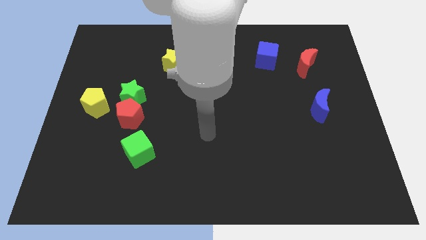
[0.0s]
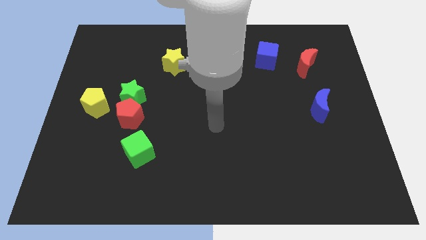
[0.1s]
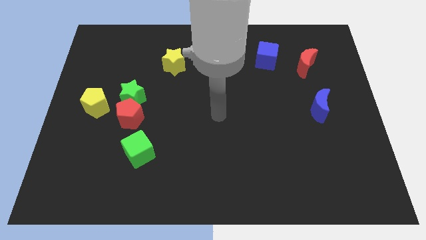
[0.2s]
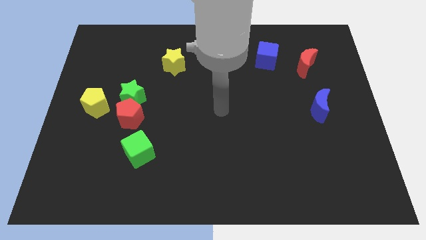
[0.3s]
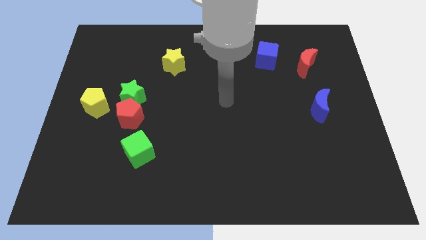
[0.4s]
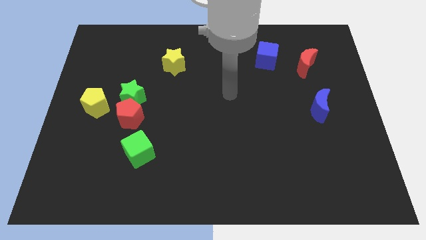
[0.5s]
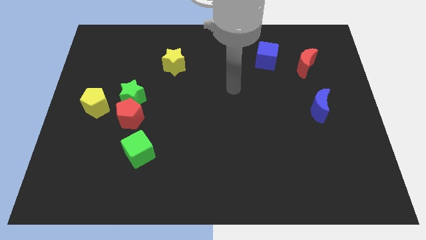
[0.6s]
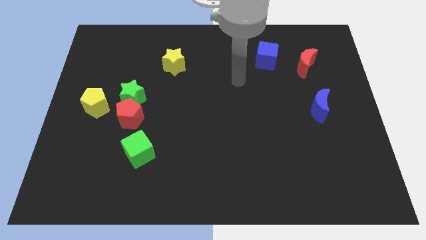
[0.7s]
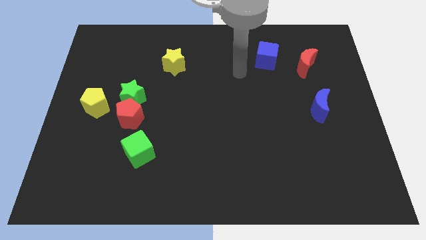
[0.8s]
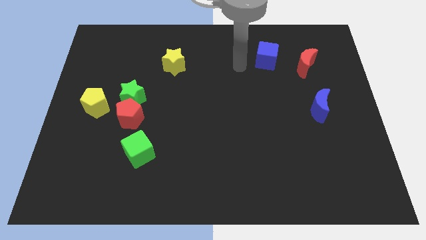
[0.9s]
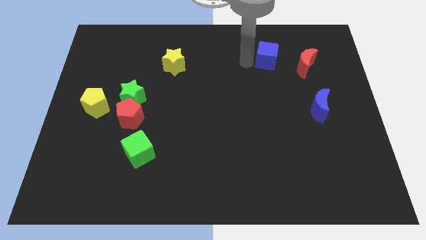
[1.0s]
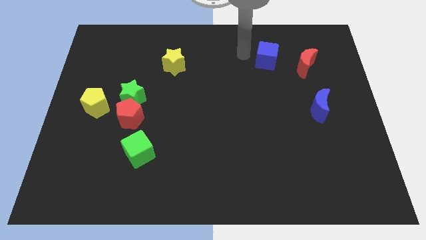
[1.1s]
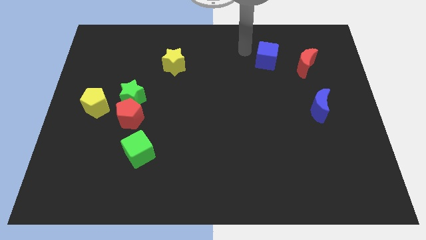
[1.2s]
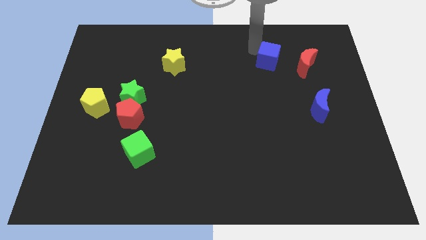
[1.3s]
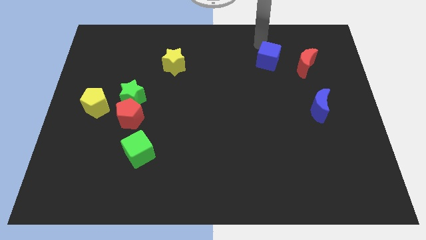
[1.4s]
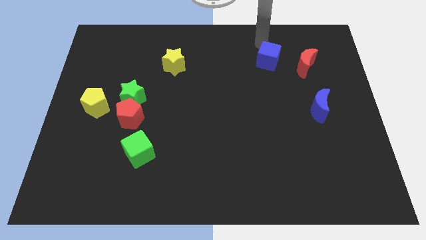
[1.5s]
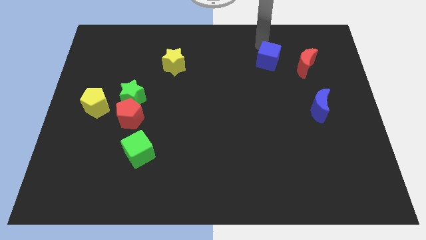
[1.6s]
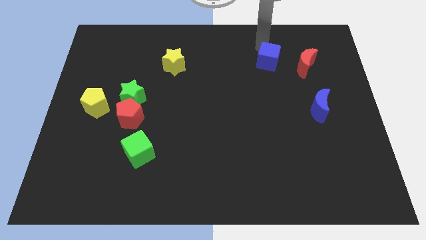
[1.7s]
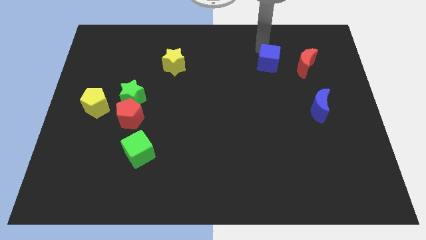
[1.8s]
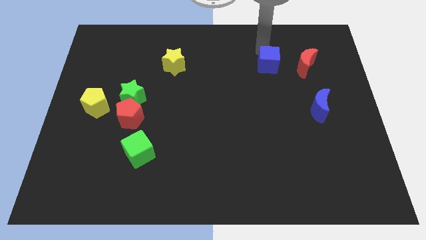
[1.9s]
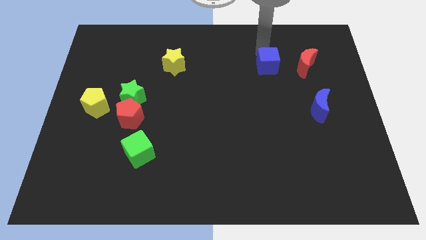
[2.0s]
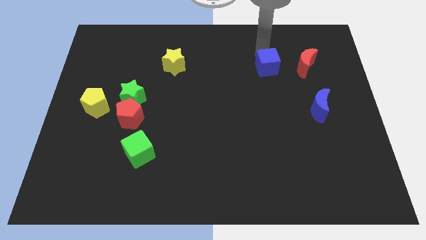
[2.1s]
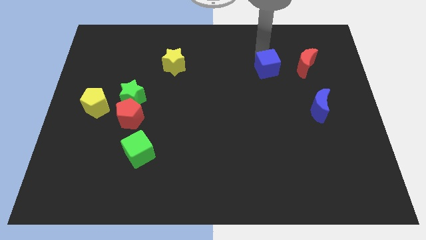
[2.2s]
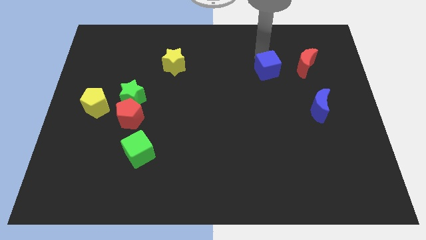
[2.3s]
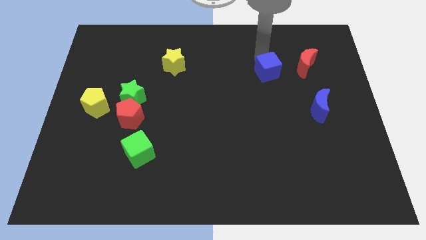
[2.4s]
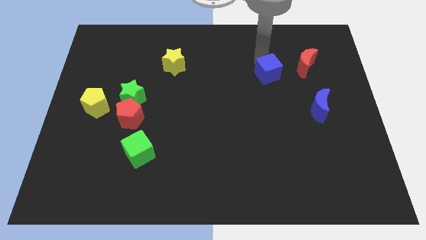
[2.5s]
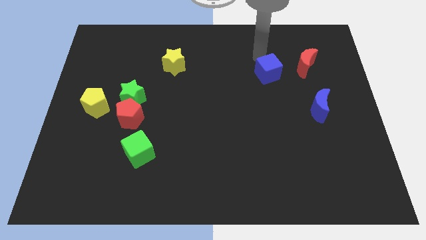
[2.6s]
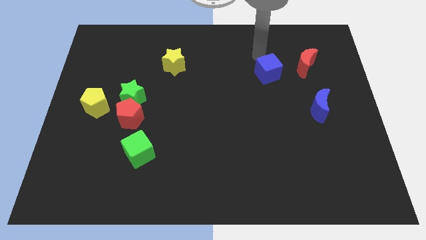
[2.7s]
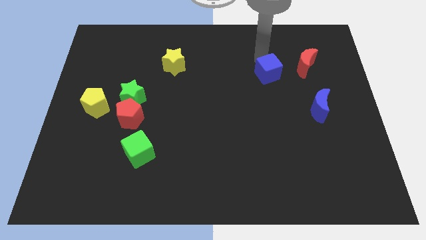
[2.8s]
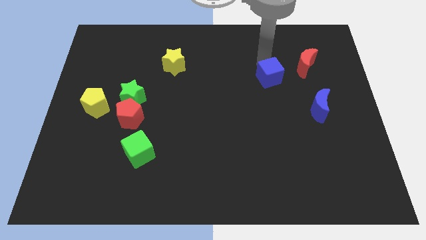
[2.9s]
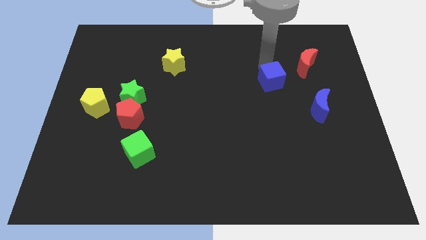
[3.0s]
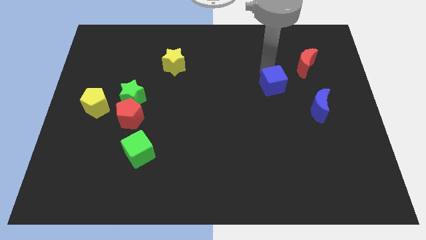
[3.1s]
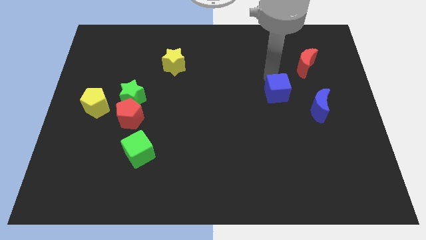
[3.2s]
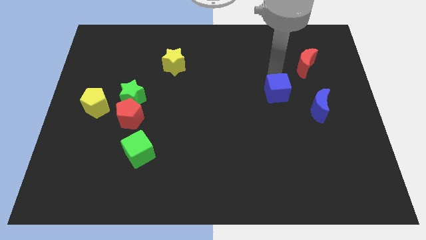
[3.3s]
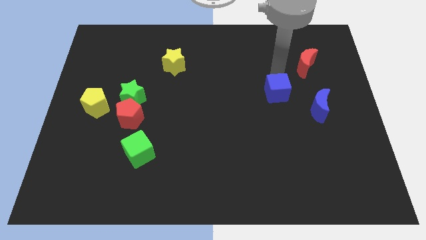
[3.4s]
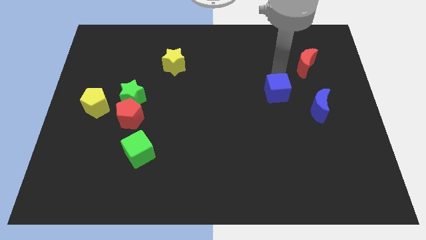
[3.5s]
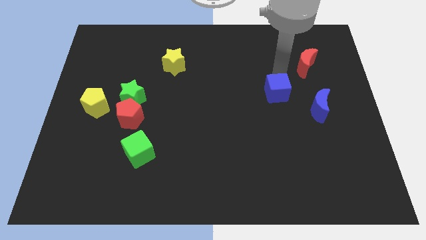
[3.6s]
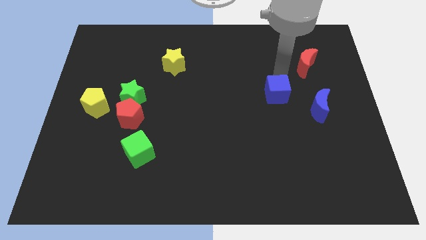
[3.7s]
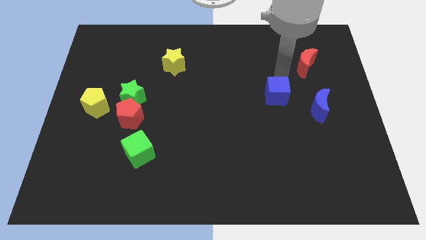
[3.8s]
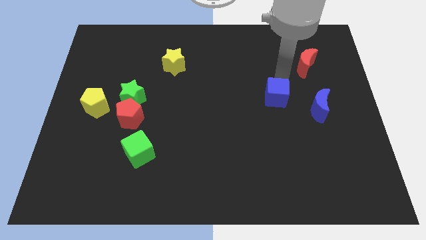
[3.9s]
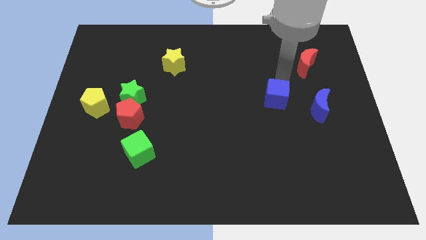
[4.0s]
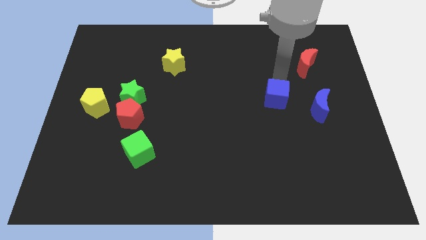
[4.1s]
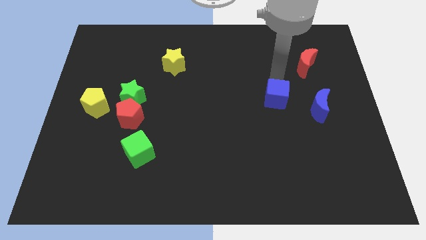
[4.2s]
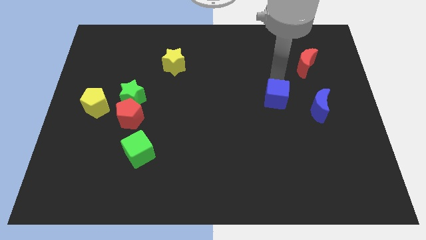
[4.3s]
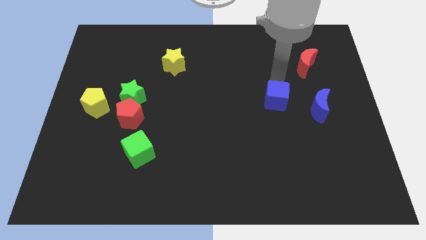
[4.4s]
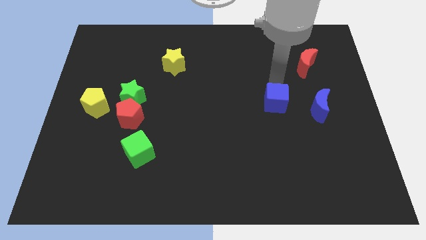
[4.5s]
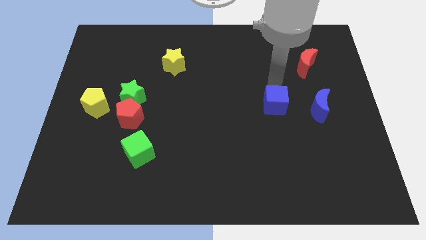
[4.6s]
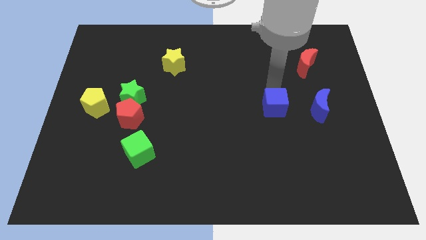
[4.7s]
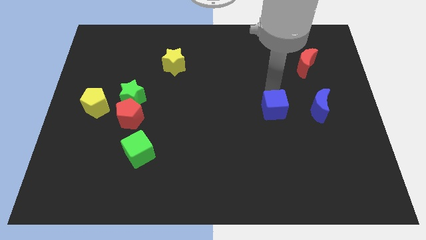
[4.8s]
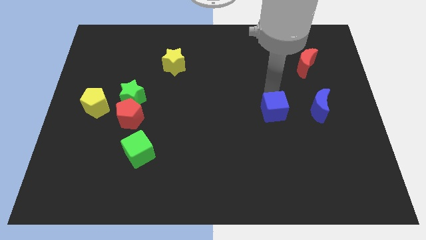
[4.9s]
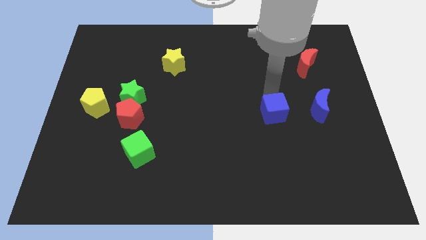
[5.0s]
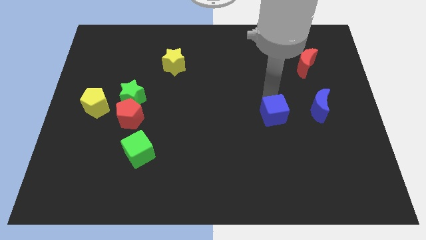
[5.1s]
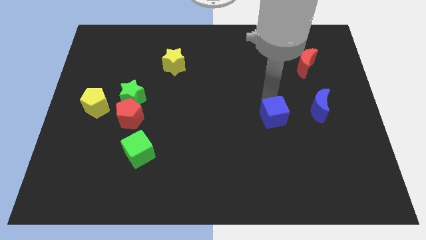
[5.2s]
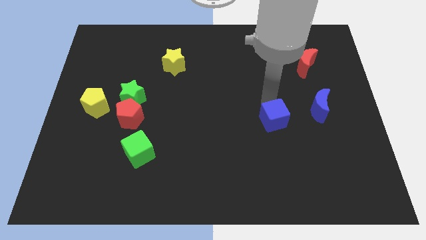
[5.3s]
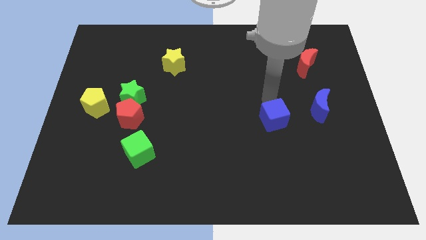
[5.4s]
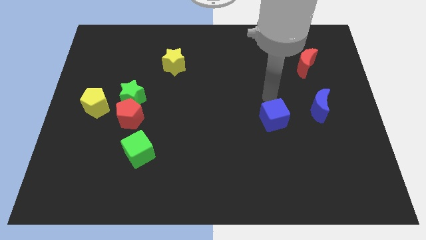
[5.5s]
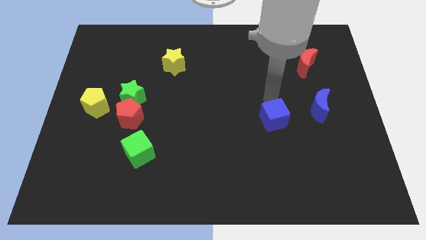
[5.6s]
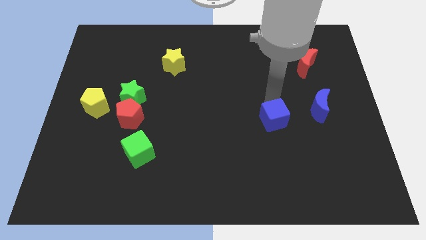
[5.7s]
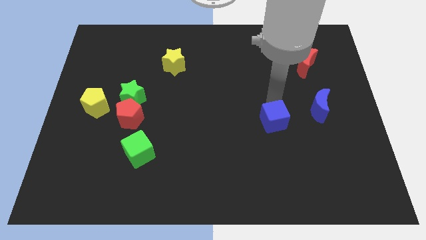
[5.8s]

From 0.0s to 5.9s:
slide the blue cube downwards

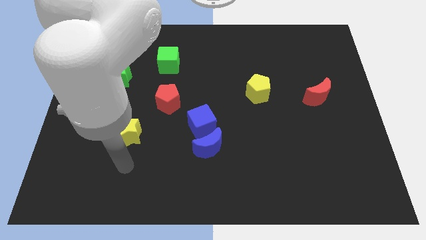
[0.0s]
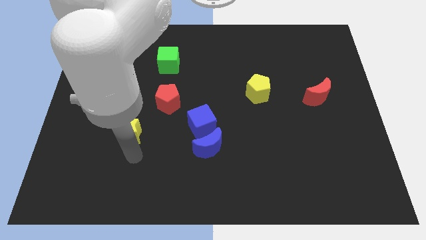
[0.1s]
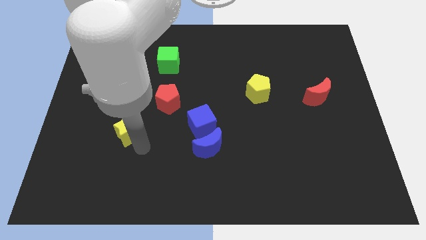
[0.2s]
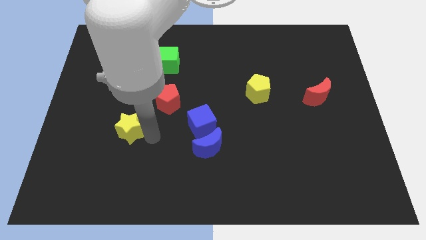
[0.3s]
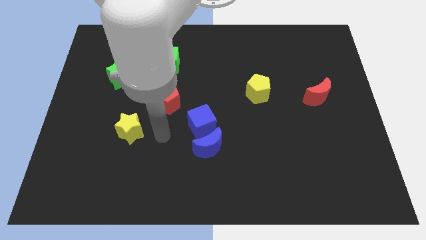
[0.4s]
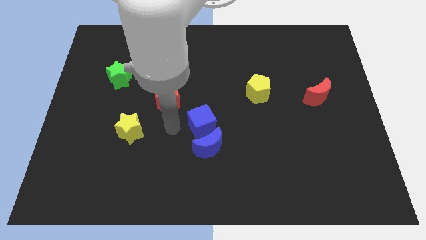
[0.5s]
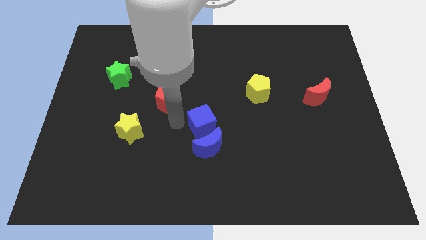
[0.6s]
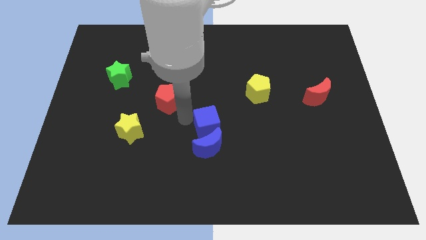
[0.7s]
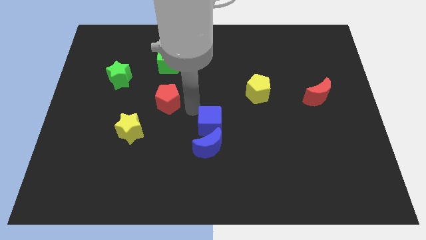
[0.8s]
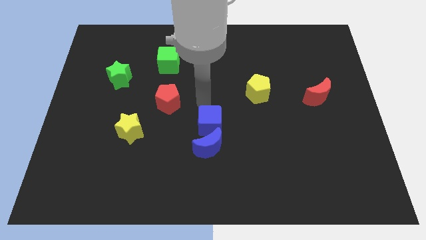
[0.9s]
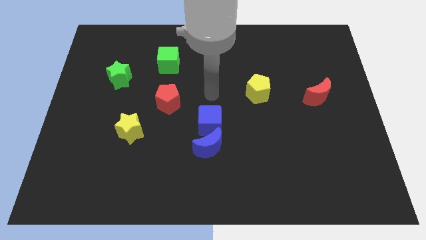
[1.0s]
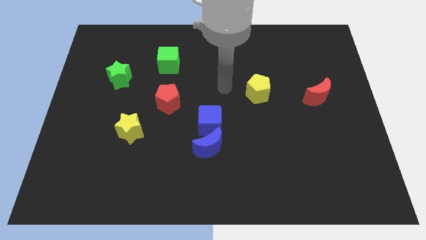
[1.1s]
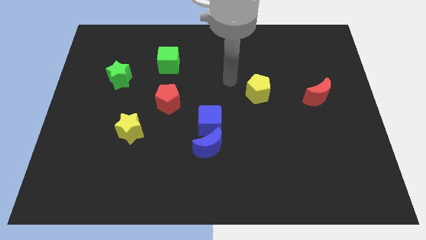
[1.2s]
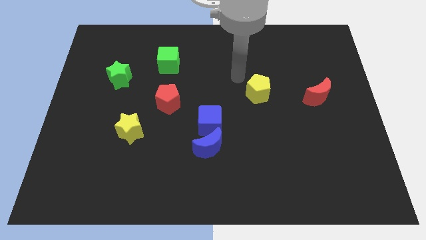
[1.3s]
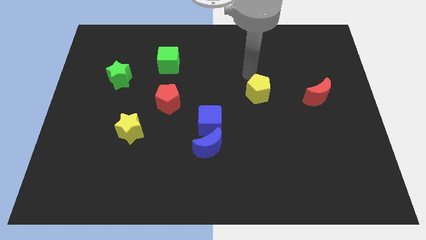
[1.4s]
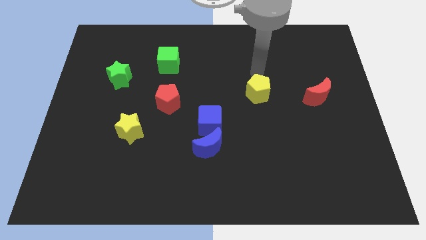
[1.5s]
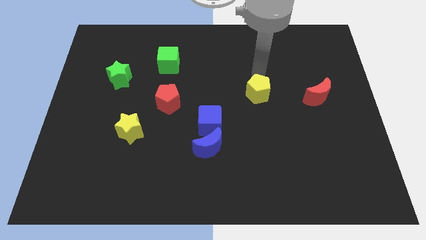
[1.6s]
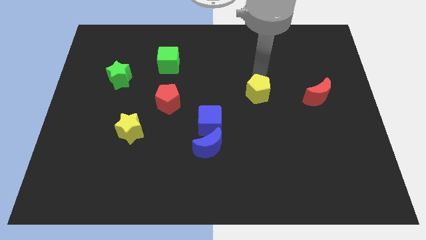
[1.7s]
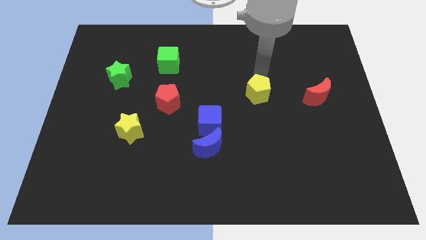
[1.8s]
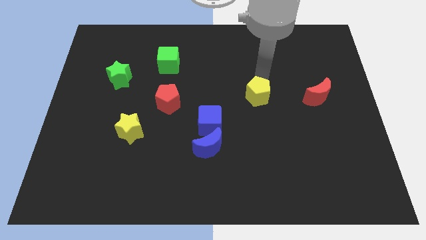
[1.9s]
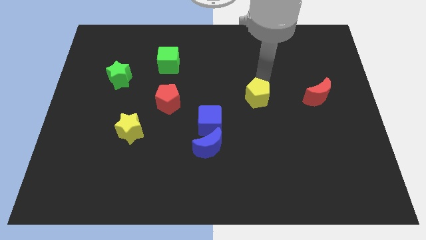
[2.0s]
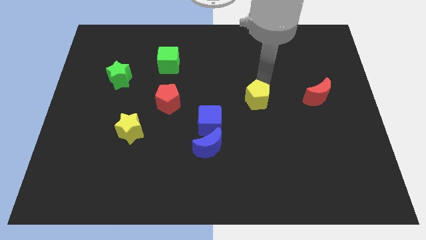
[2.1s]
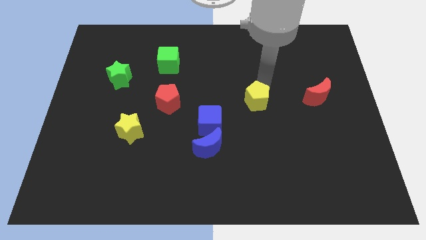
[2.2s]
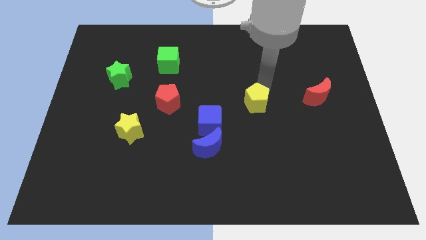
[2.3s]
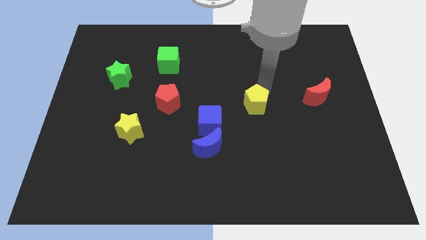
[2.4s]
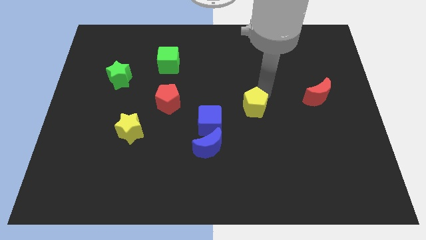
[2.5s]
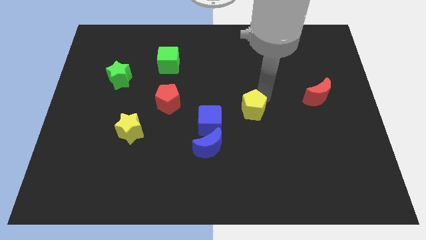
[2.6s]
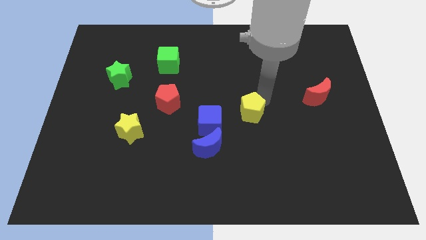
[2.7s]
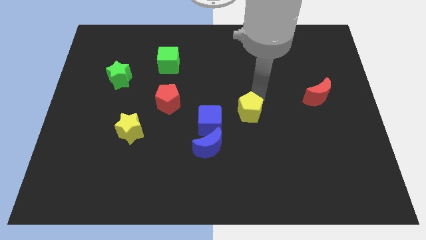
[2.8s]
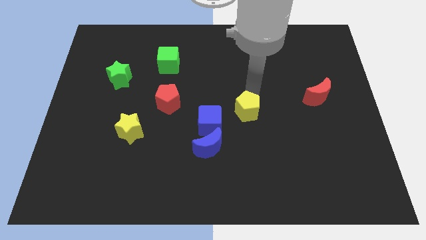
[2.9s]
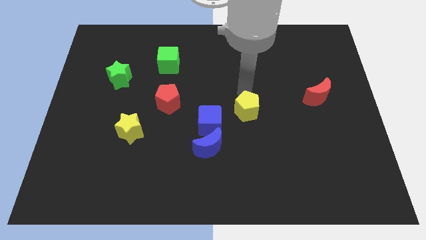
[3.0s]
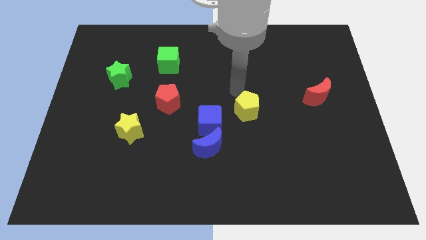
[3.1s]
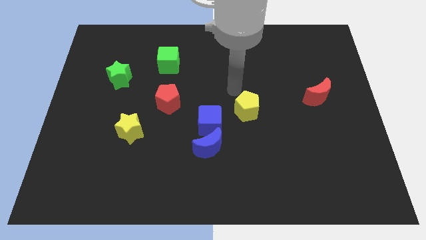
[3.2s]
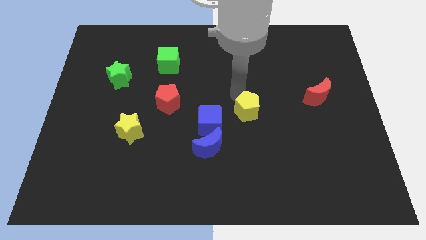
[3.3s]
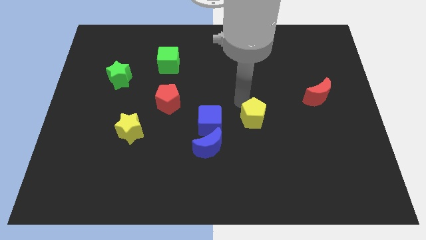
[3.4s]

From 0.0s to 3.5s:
slightly push the yellow pentagon down
